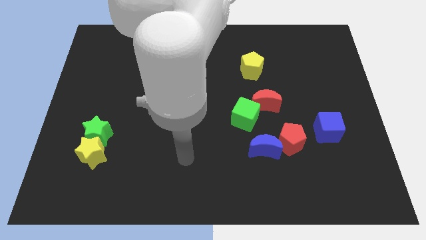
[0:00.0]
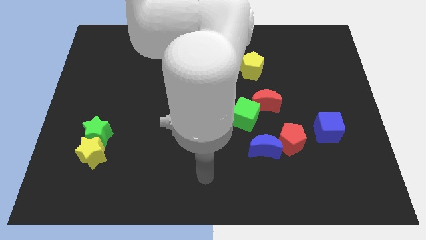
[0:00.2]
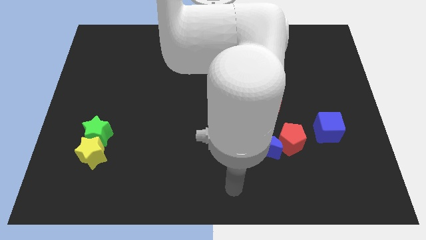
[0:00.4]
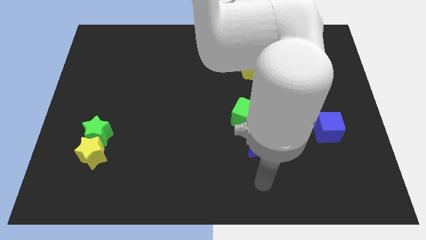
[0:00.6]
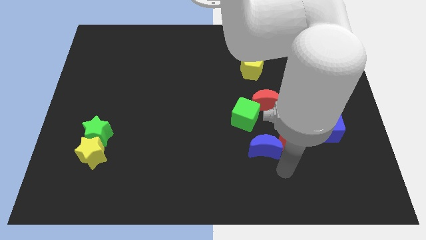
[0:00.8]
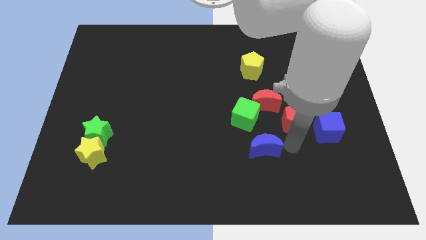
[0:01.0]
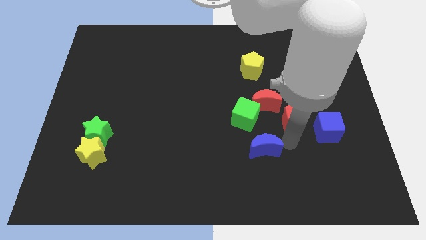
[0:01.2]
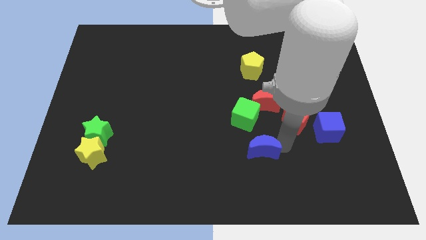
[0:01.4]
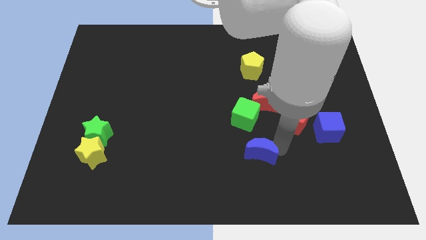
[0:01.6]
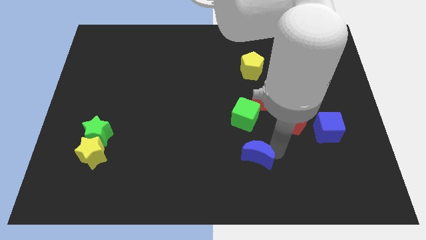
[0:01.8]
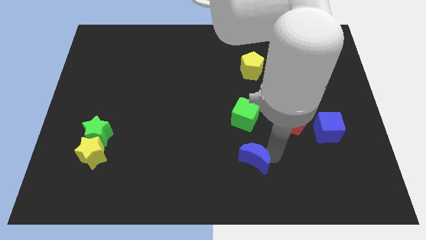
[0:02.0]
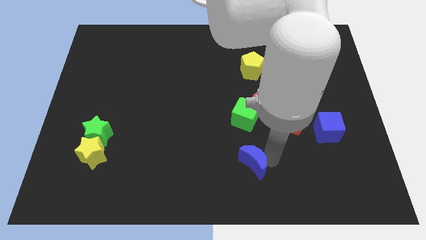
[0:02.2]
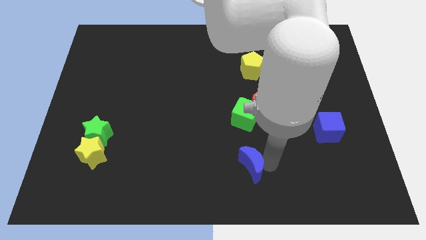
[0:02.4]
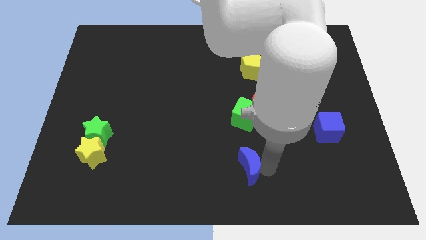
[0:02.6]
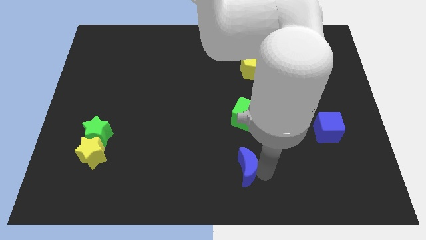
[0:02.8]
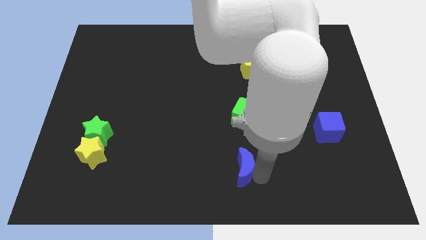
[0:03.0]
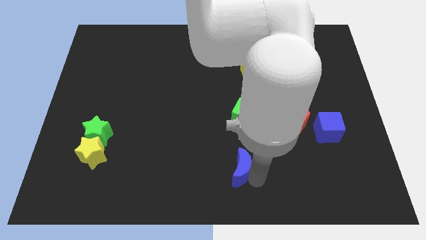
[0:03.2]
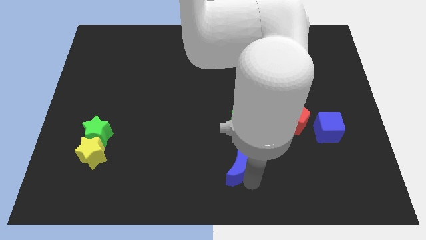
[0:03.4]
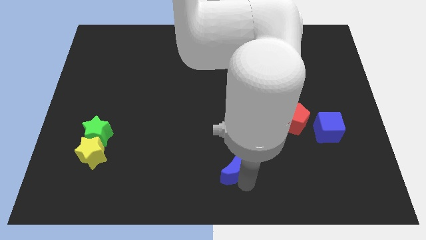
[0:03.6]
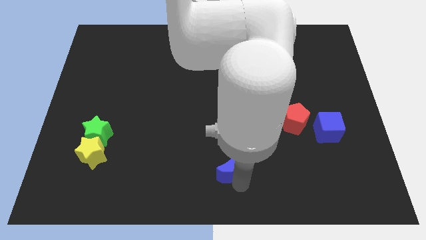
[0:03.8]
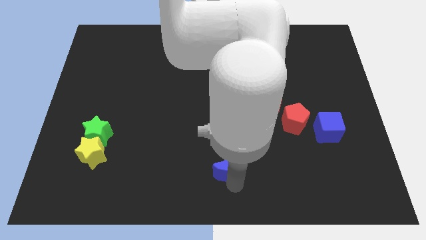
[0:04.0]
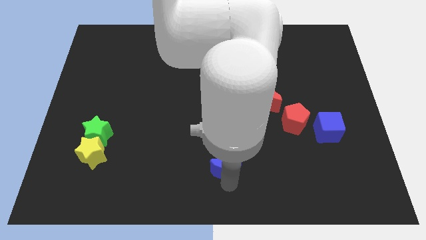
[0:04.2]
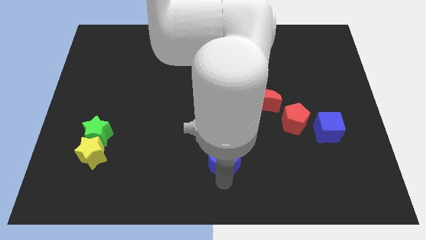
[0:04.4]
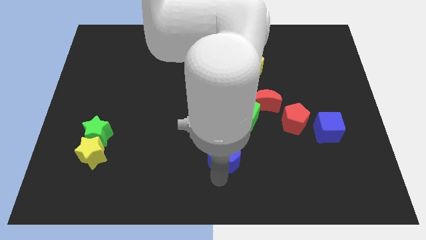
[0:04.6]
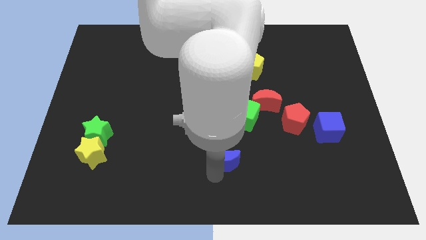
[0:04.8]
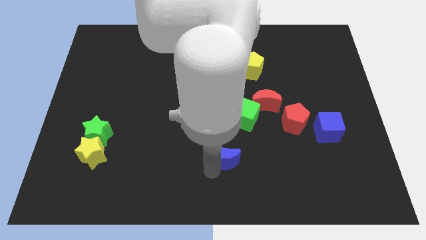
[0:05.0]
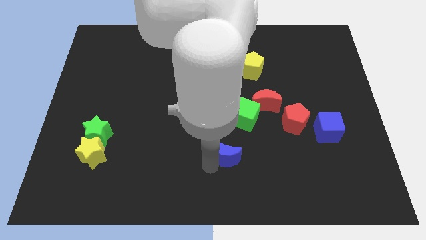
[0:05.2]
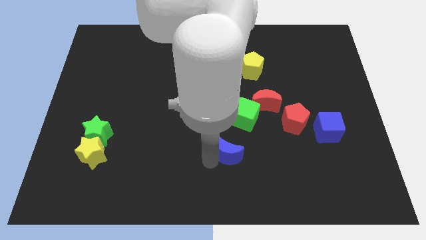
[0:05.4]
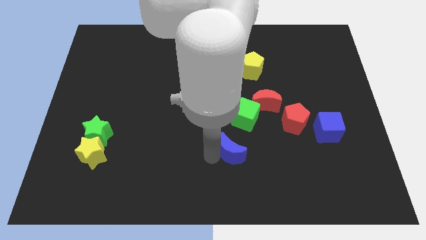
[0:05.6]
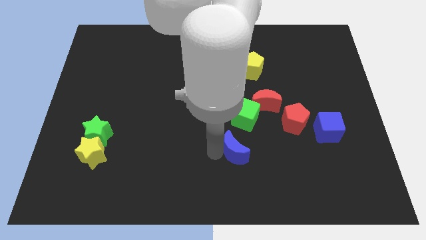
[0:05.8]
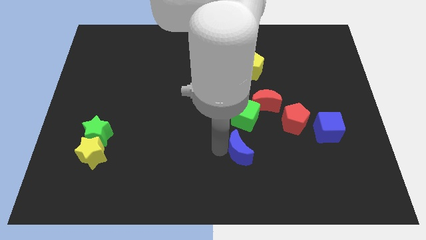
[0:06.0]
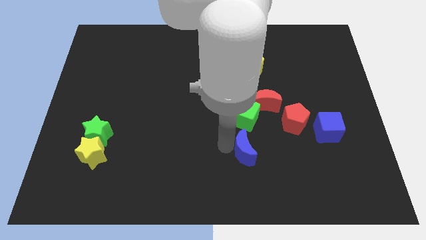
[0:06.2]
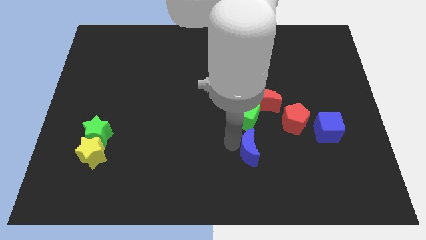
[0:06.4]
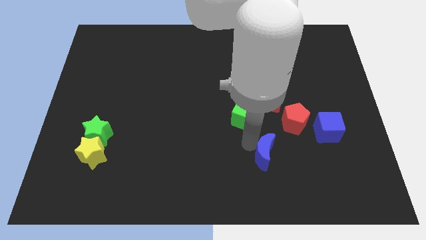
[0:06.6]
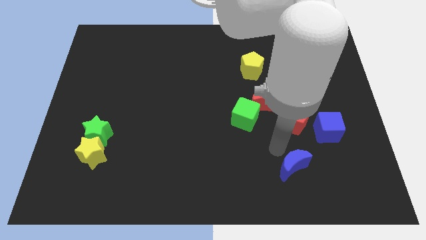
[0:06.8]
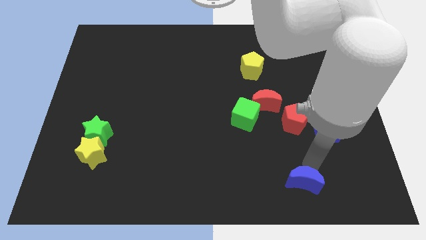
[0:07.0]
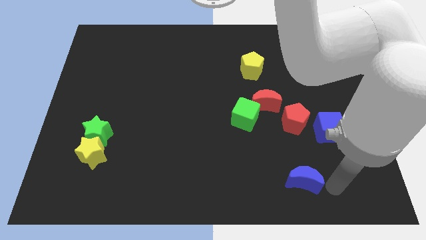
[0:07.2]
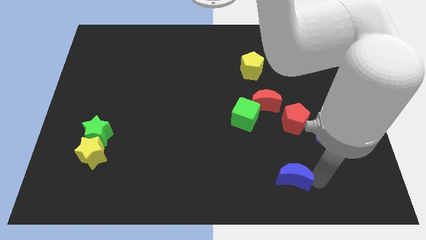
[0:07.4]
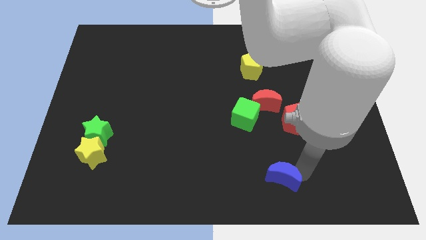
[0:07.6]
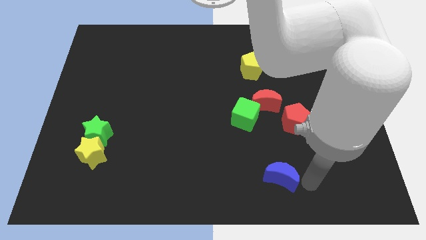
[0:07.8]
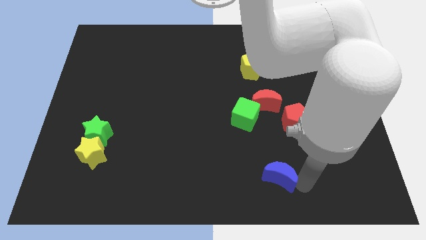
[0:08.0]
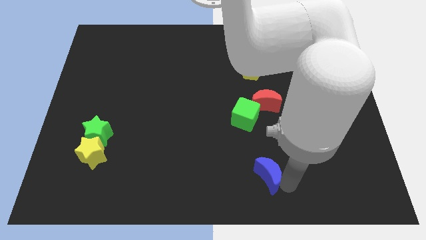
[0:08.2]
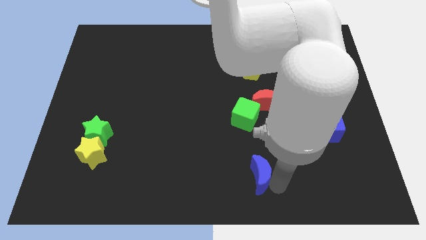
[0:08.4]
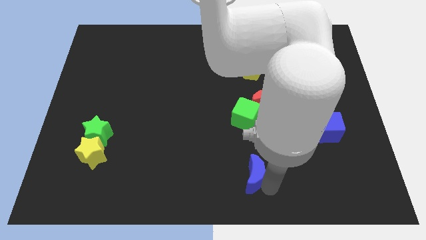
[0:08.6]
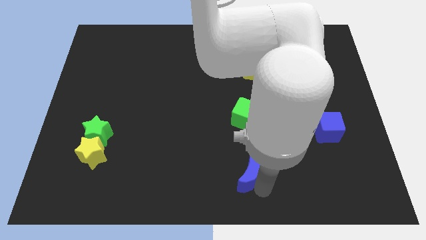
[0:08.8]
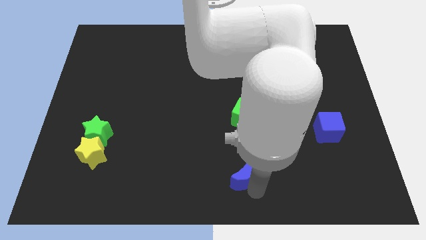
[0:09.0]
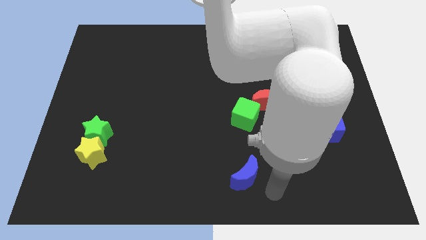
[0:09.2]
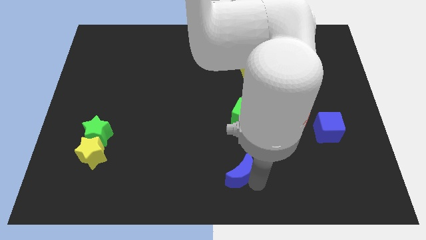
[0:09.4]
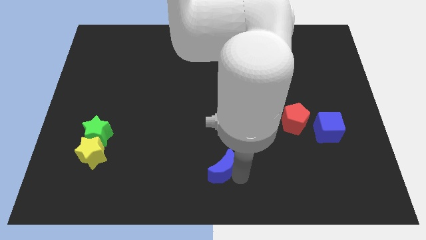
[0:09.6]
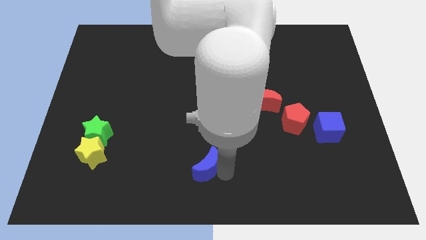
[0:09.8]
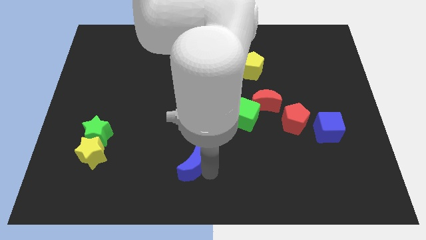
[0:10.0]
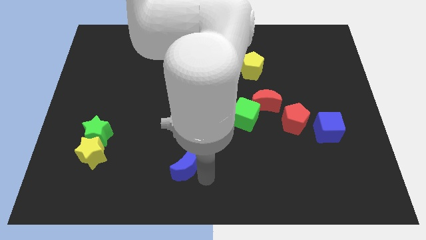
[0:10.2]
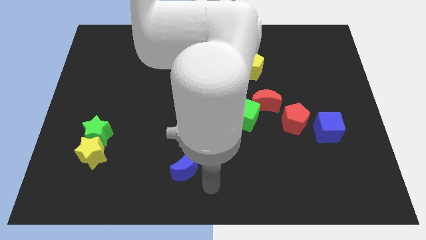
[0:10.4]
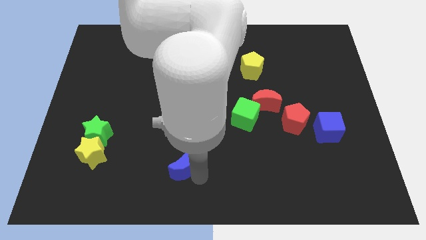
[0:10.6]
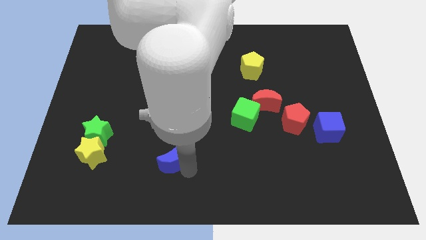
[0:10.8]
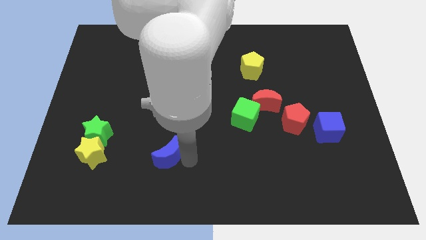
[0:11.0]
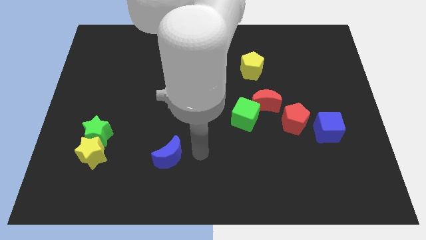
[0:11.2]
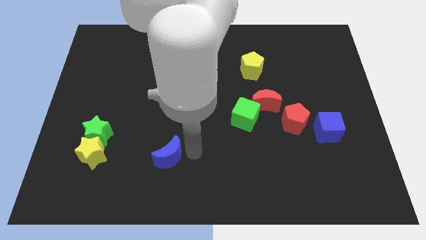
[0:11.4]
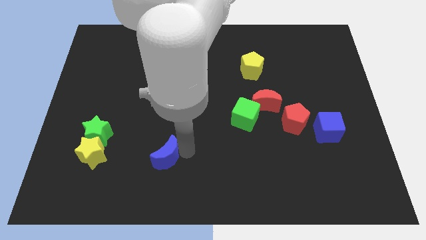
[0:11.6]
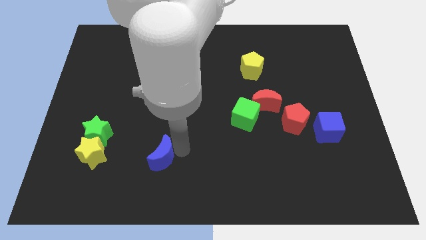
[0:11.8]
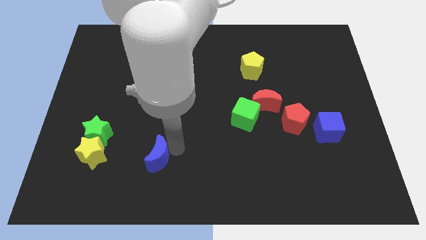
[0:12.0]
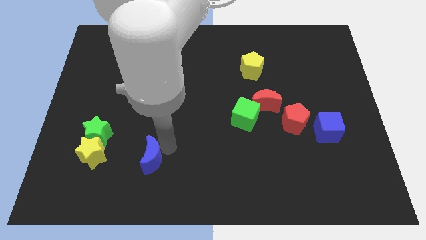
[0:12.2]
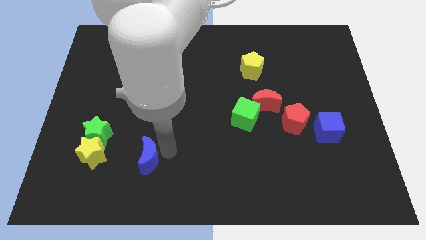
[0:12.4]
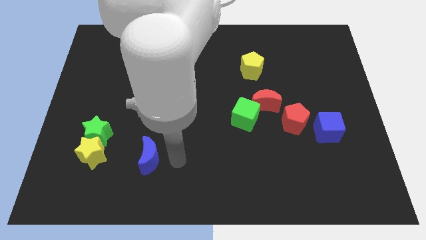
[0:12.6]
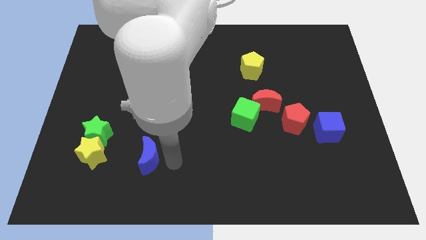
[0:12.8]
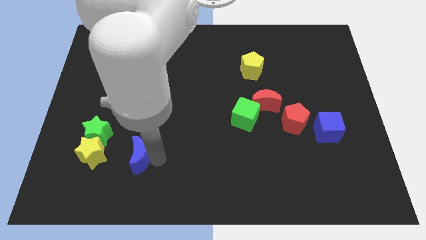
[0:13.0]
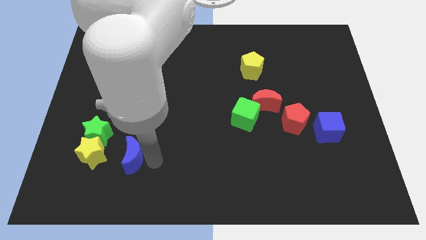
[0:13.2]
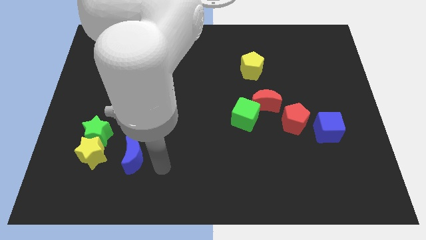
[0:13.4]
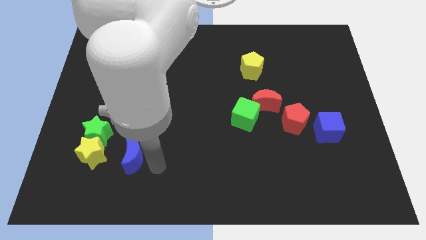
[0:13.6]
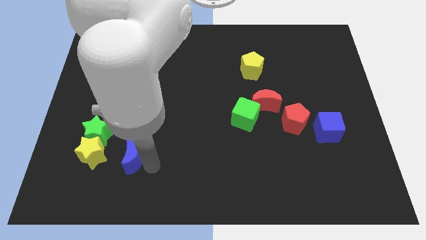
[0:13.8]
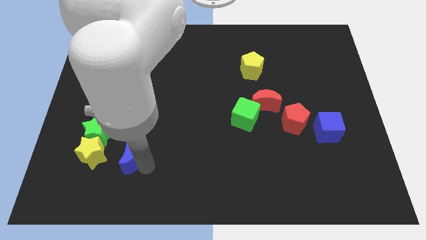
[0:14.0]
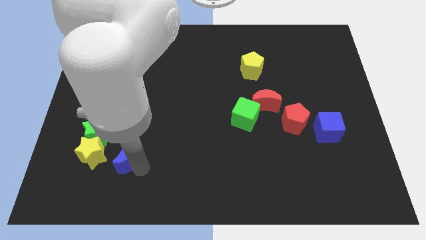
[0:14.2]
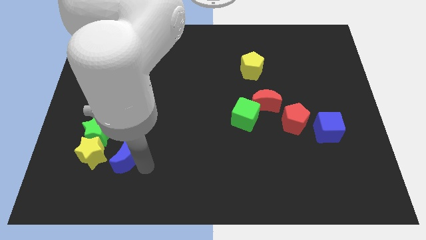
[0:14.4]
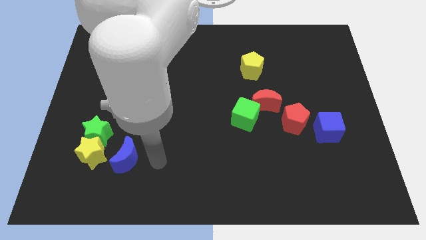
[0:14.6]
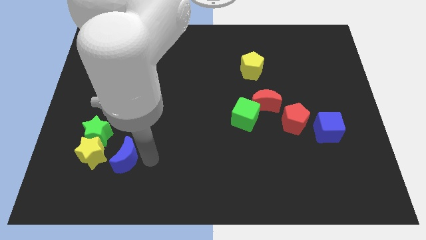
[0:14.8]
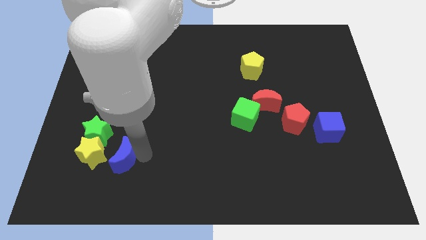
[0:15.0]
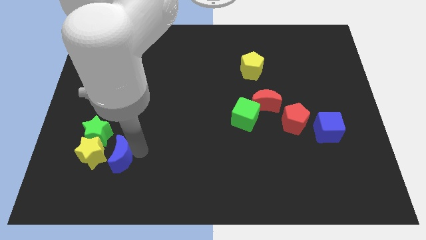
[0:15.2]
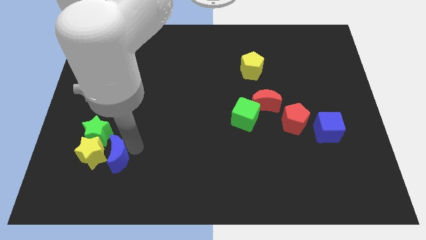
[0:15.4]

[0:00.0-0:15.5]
move the blue moon towards the yellow star
